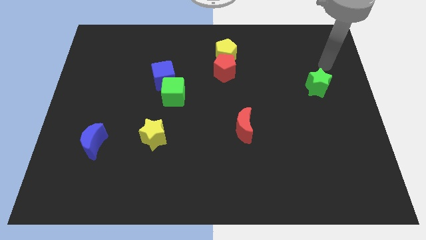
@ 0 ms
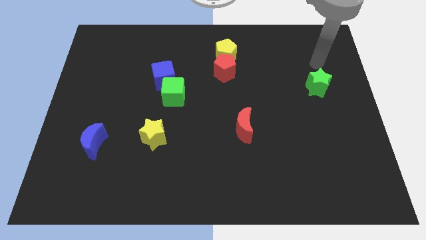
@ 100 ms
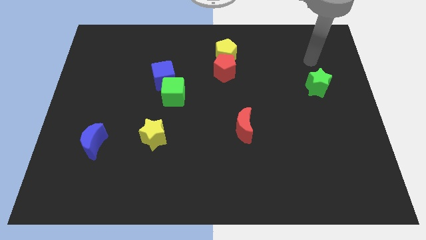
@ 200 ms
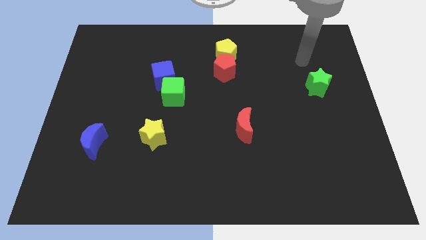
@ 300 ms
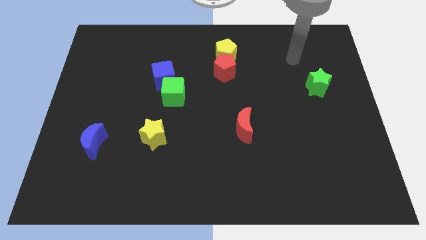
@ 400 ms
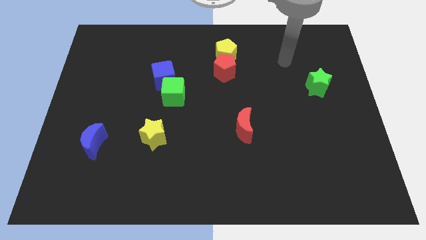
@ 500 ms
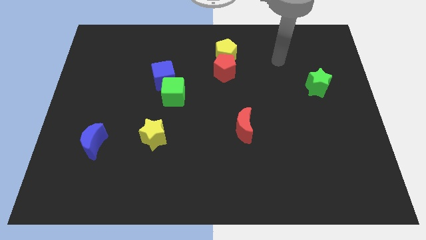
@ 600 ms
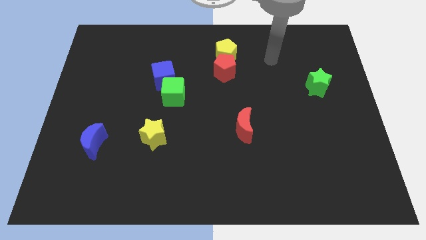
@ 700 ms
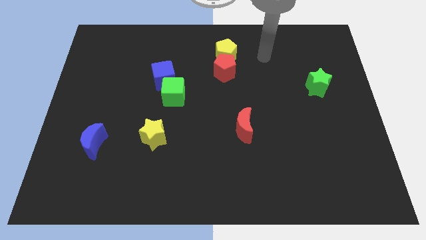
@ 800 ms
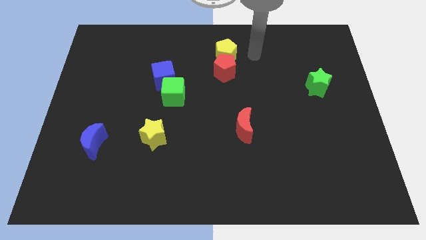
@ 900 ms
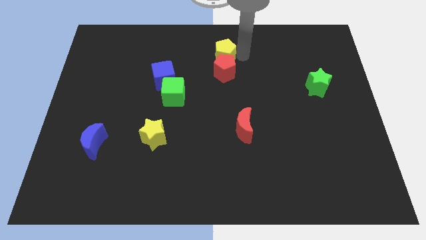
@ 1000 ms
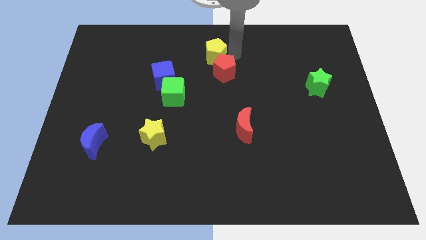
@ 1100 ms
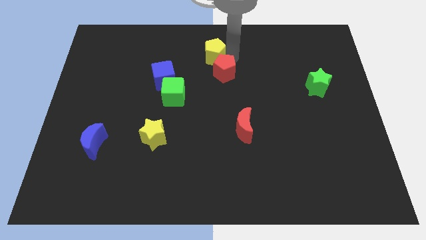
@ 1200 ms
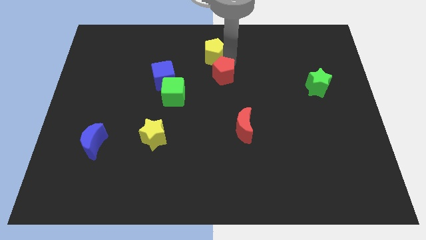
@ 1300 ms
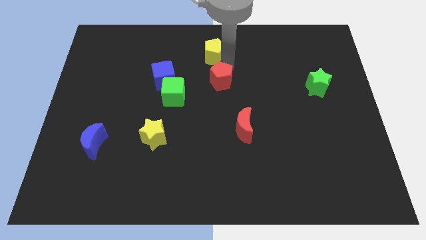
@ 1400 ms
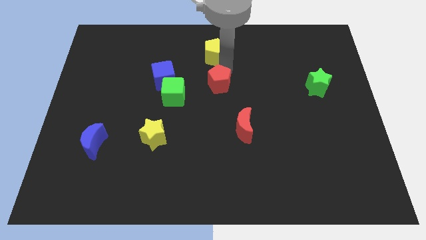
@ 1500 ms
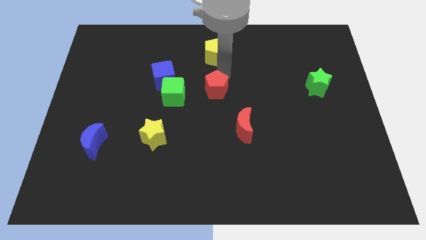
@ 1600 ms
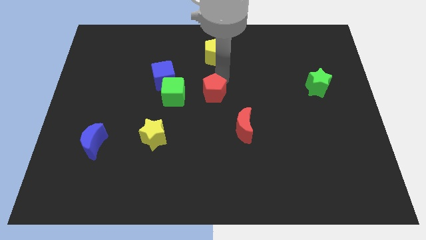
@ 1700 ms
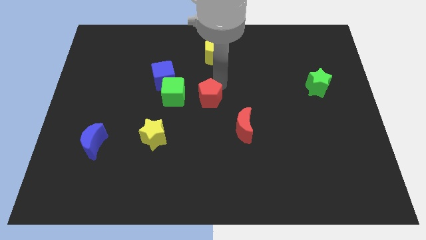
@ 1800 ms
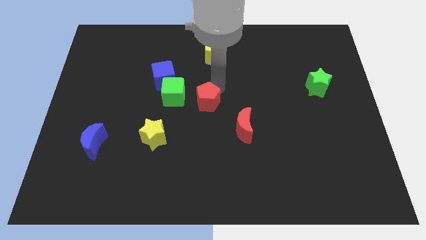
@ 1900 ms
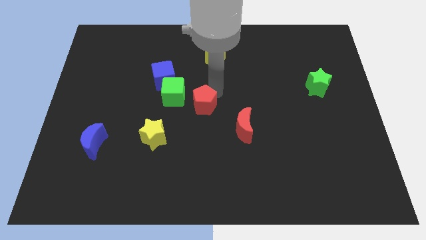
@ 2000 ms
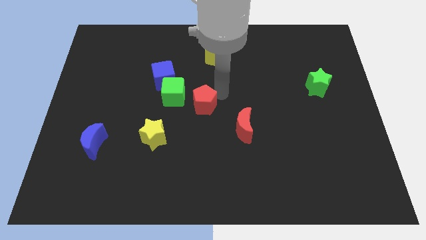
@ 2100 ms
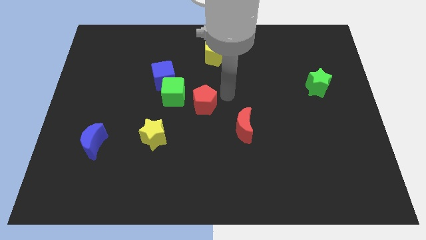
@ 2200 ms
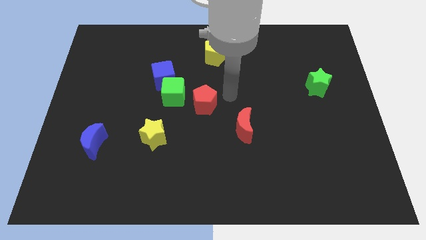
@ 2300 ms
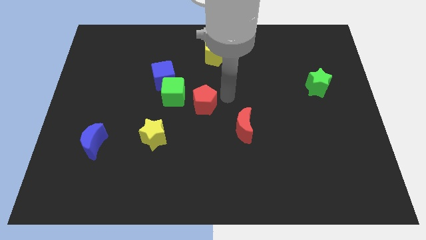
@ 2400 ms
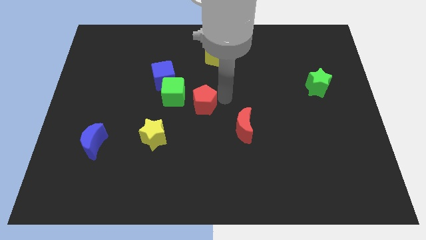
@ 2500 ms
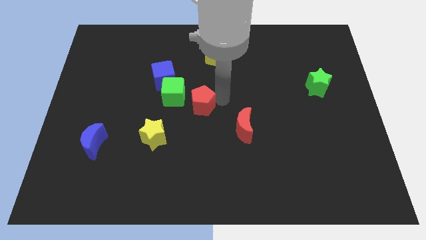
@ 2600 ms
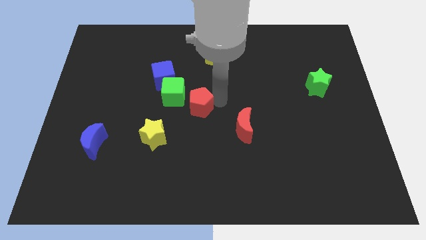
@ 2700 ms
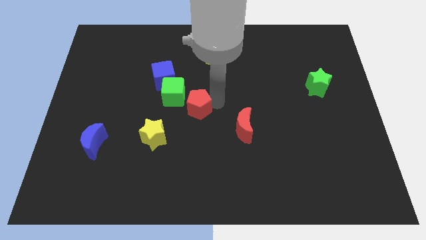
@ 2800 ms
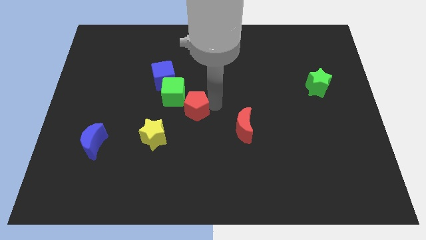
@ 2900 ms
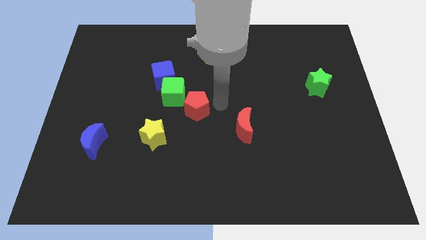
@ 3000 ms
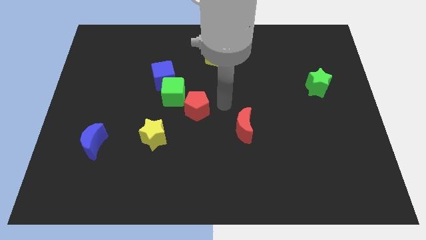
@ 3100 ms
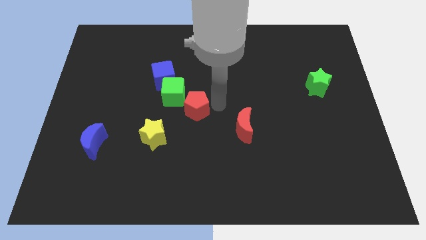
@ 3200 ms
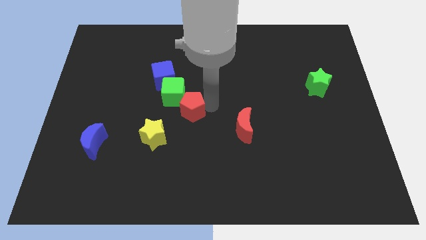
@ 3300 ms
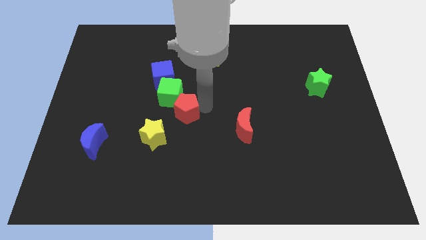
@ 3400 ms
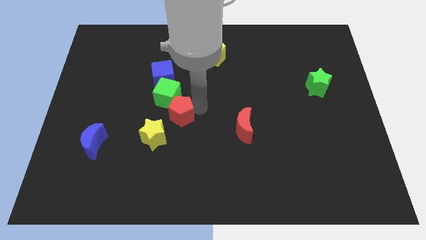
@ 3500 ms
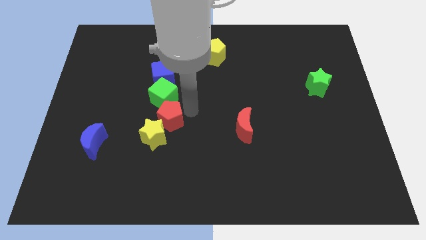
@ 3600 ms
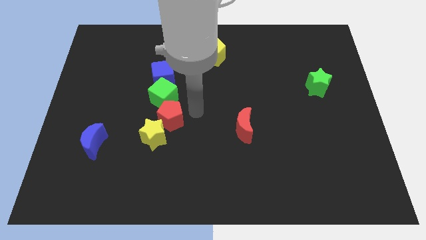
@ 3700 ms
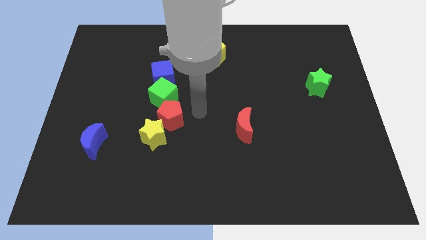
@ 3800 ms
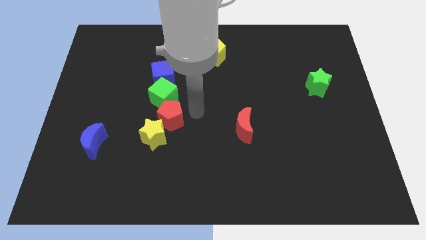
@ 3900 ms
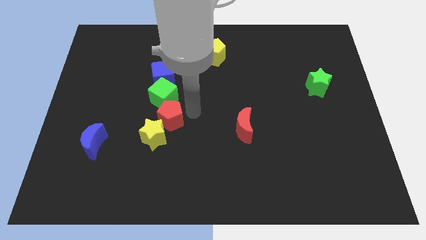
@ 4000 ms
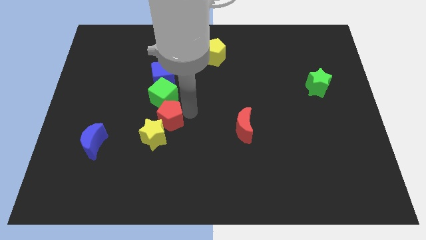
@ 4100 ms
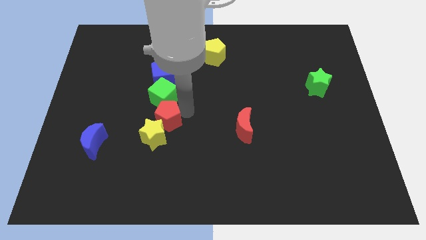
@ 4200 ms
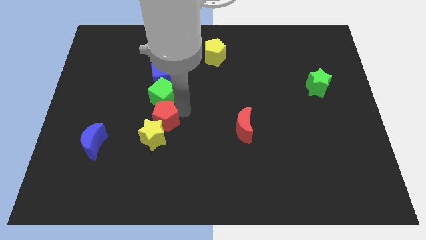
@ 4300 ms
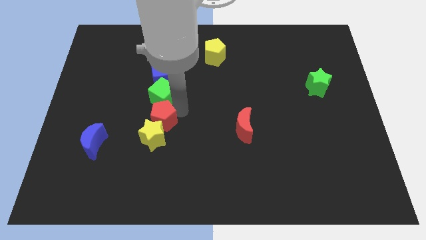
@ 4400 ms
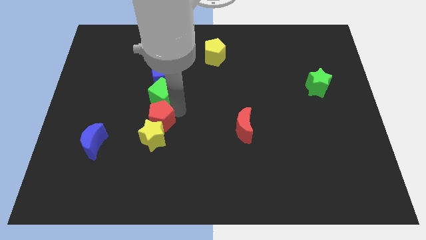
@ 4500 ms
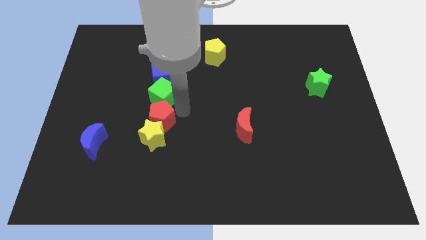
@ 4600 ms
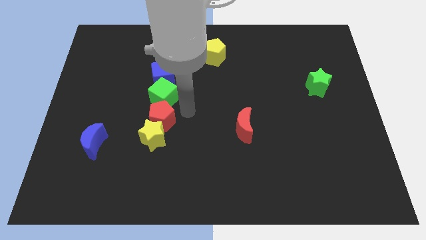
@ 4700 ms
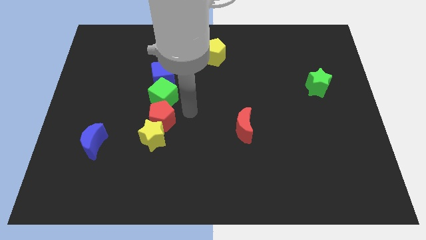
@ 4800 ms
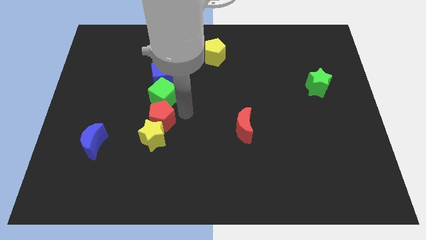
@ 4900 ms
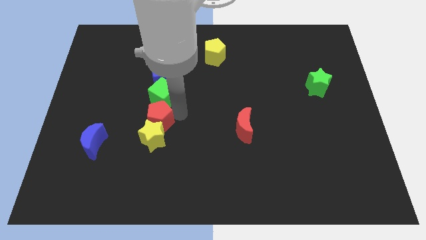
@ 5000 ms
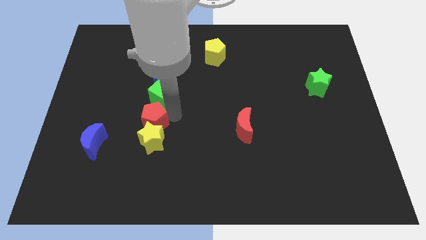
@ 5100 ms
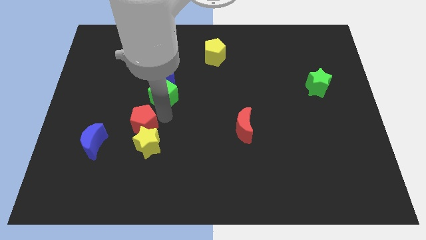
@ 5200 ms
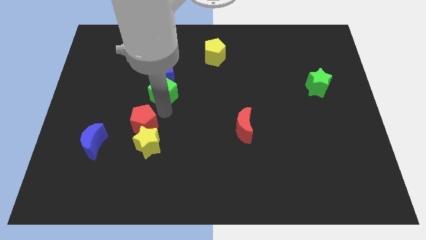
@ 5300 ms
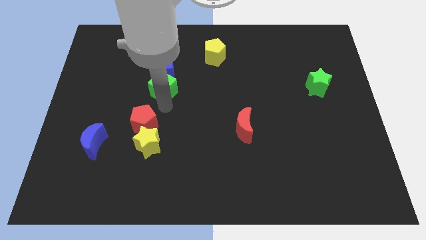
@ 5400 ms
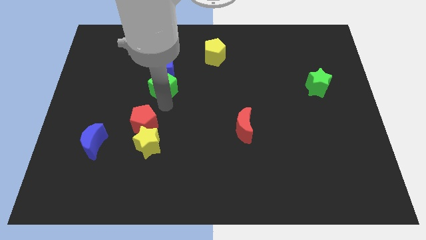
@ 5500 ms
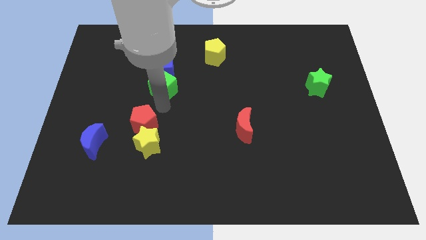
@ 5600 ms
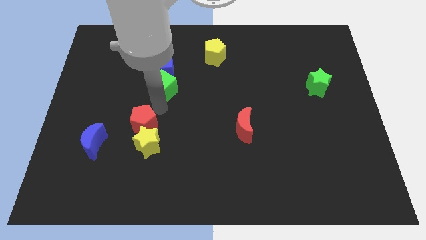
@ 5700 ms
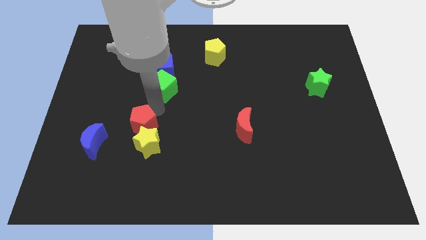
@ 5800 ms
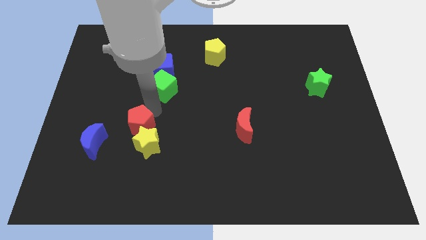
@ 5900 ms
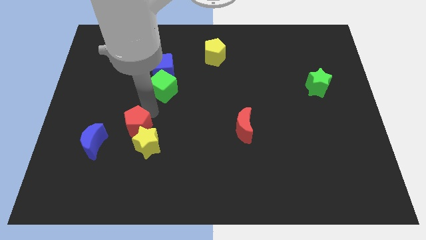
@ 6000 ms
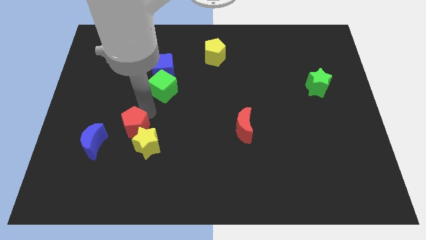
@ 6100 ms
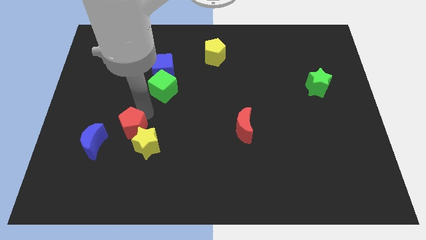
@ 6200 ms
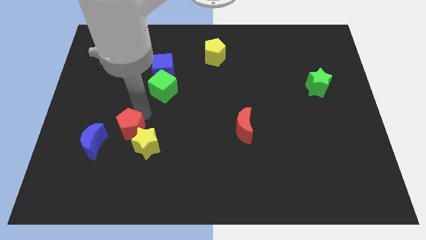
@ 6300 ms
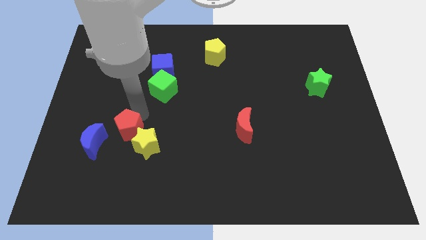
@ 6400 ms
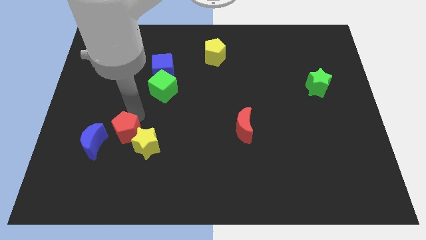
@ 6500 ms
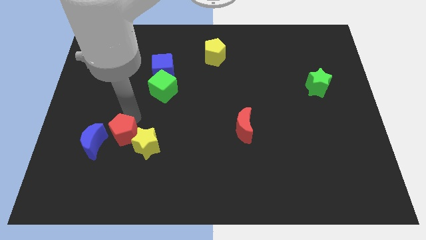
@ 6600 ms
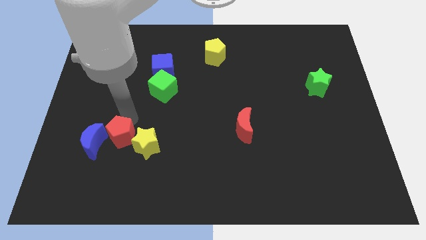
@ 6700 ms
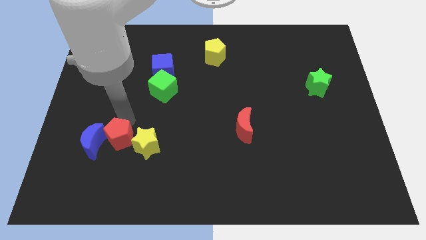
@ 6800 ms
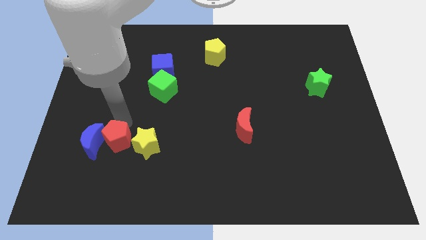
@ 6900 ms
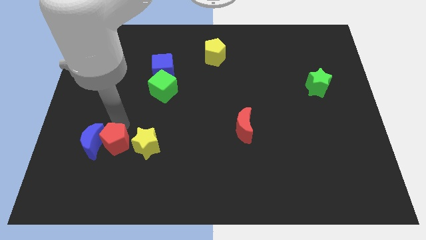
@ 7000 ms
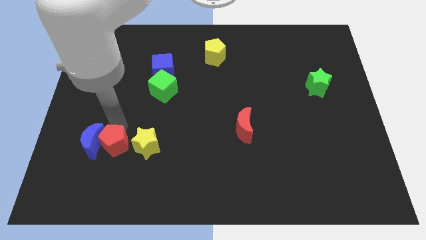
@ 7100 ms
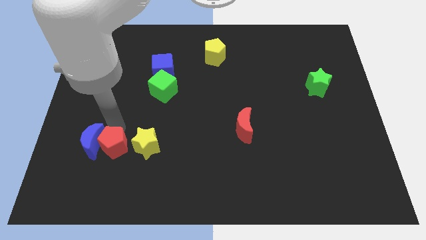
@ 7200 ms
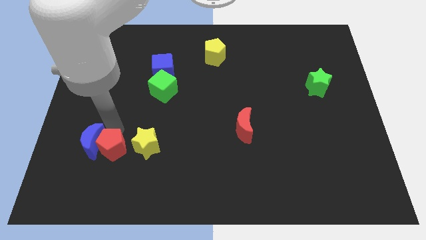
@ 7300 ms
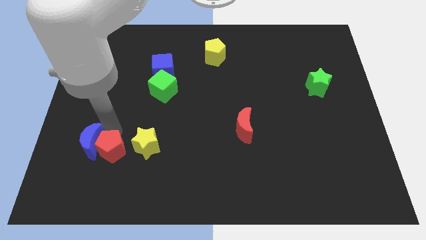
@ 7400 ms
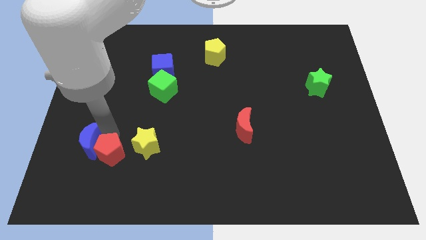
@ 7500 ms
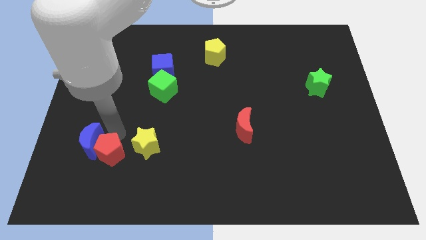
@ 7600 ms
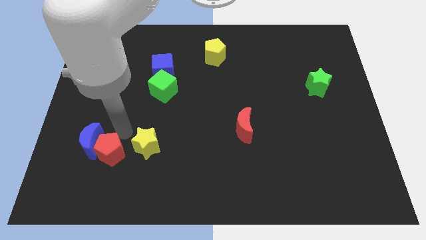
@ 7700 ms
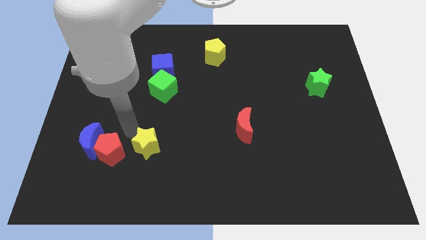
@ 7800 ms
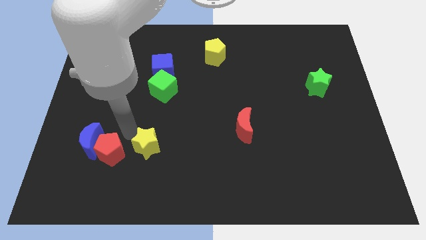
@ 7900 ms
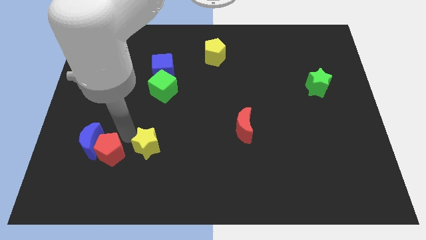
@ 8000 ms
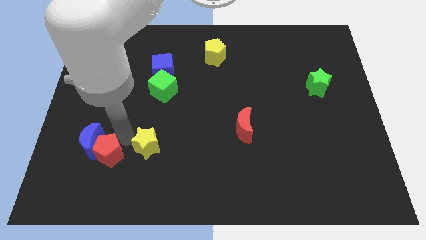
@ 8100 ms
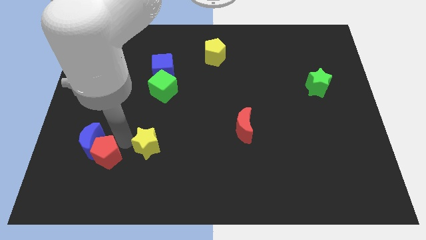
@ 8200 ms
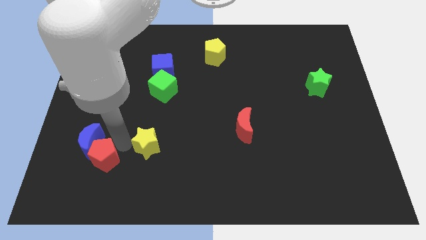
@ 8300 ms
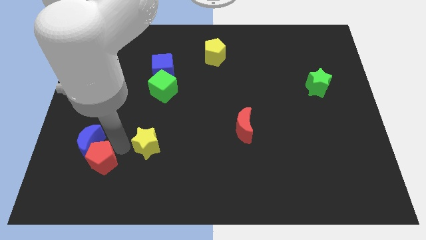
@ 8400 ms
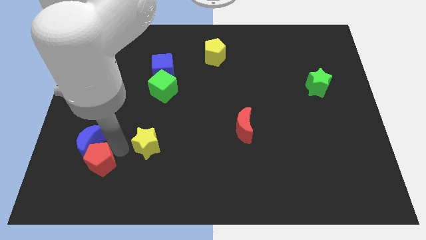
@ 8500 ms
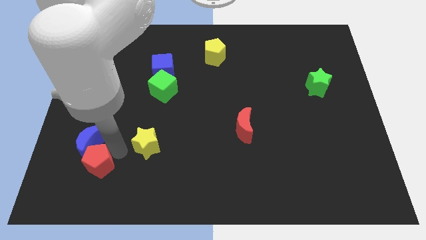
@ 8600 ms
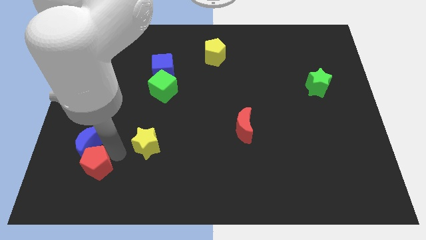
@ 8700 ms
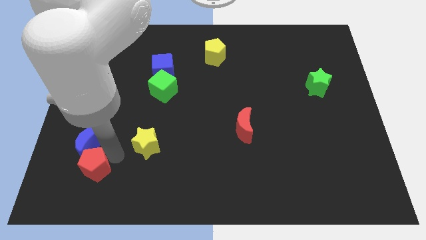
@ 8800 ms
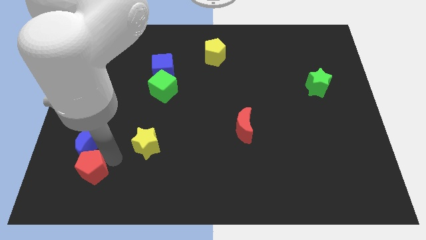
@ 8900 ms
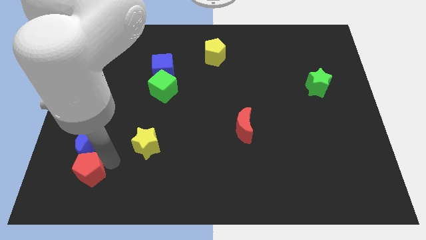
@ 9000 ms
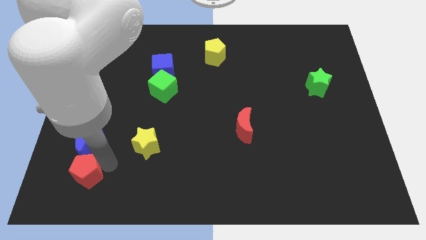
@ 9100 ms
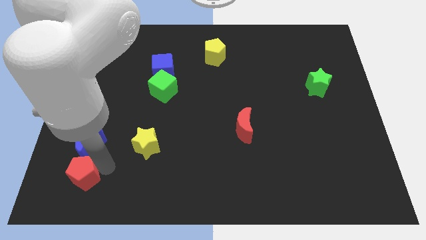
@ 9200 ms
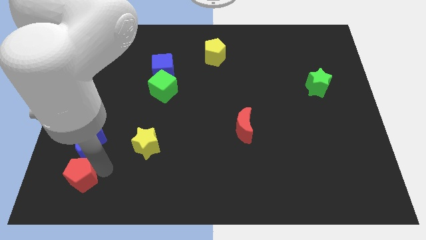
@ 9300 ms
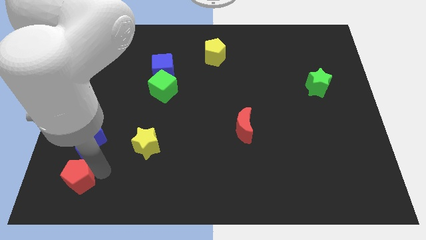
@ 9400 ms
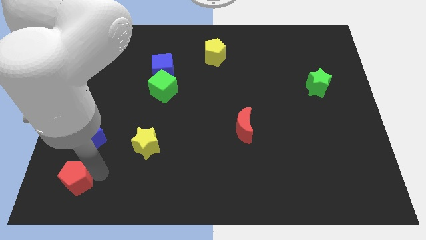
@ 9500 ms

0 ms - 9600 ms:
move the red pentagon to the lower left corner
